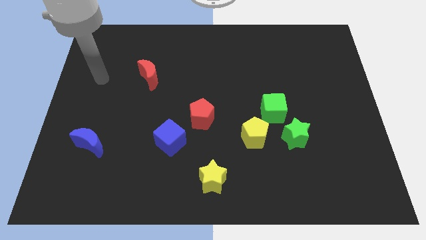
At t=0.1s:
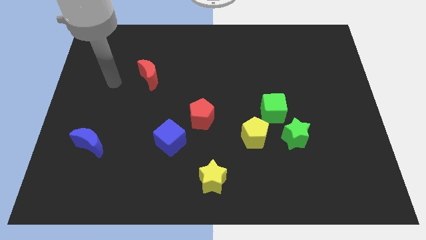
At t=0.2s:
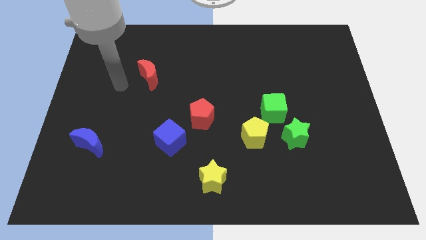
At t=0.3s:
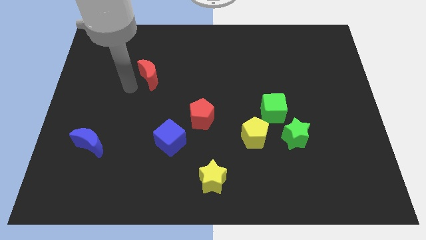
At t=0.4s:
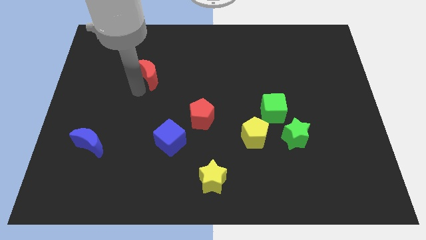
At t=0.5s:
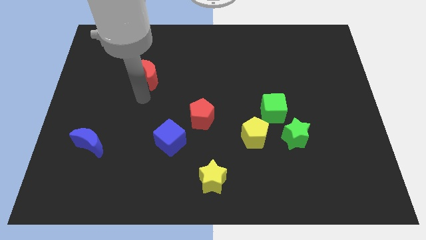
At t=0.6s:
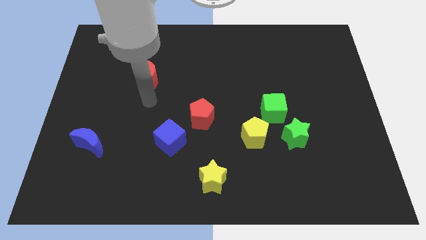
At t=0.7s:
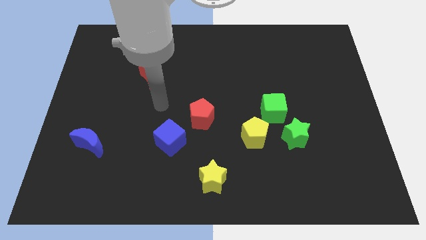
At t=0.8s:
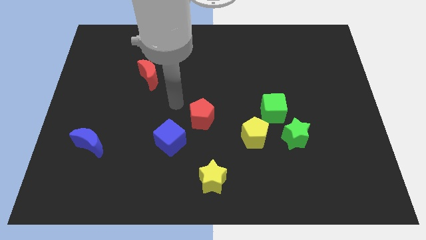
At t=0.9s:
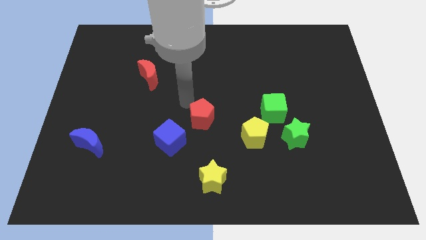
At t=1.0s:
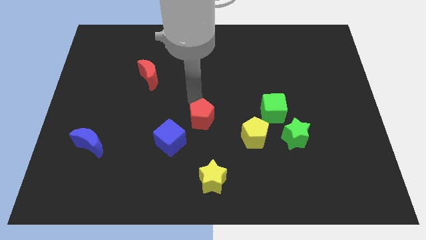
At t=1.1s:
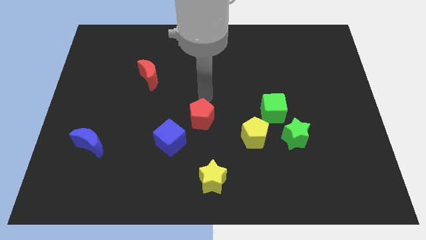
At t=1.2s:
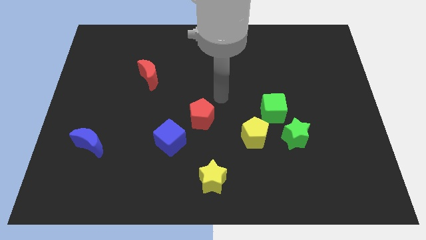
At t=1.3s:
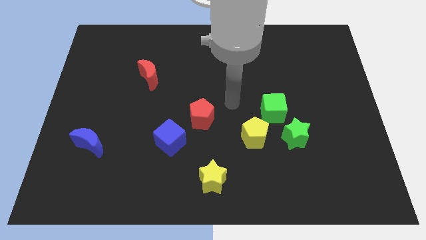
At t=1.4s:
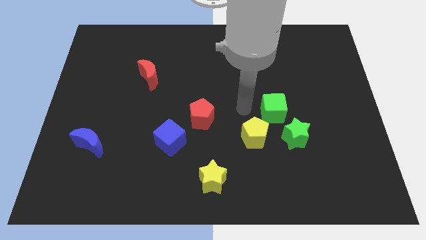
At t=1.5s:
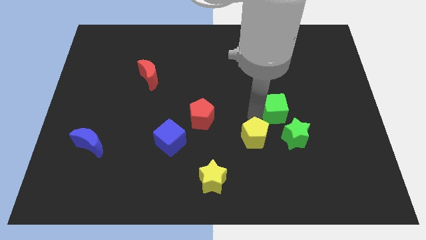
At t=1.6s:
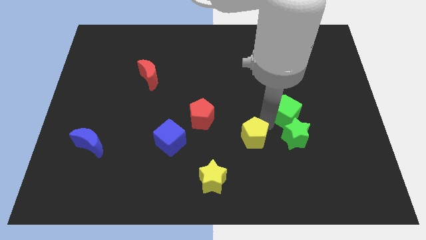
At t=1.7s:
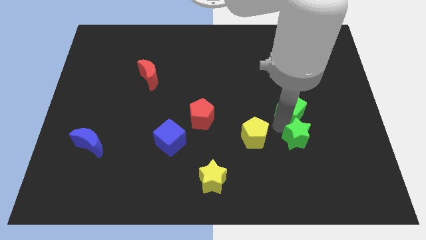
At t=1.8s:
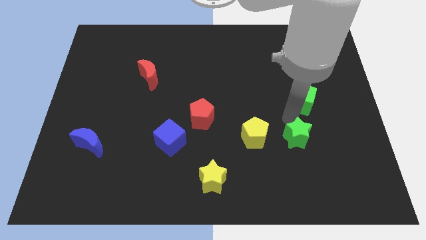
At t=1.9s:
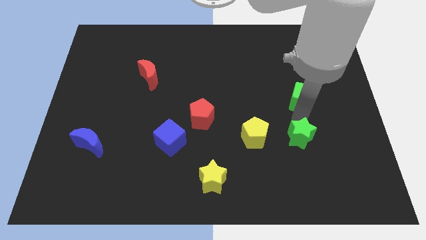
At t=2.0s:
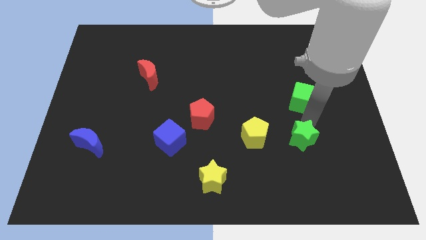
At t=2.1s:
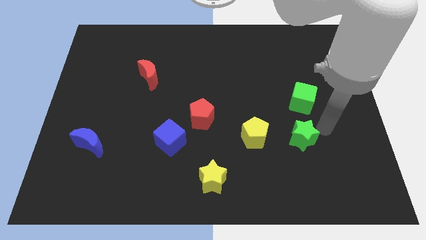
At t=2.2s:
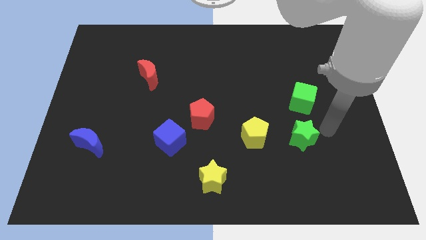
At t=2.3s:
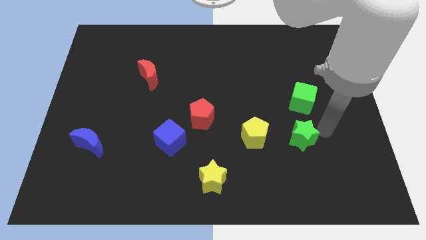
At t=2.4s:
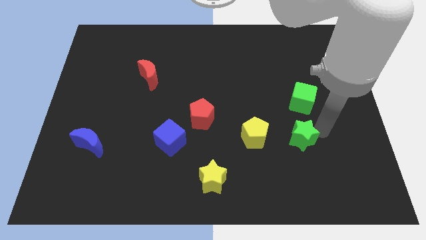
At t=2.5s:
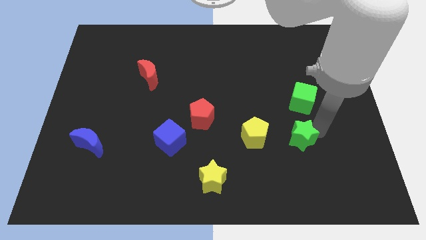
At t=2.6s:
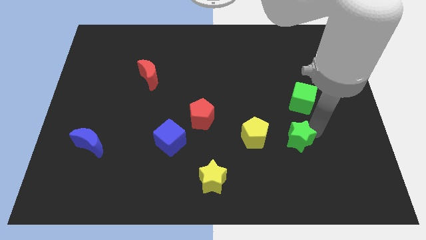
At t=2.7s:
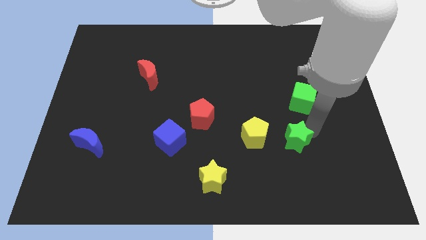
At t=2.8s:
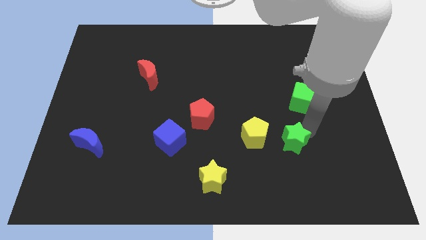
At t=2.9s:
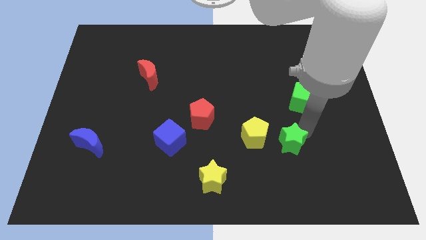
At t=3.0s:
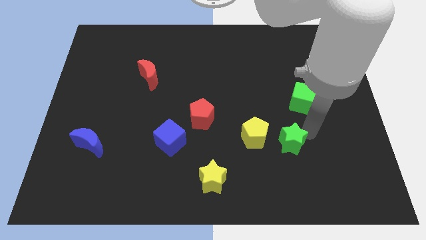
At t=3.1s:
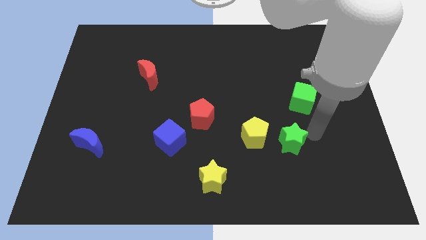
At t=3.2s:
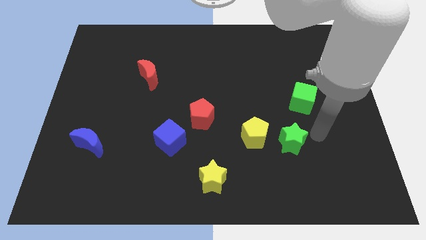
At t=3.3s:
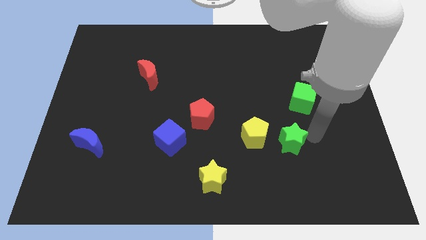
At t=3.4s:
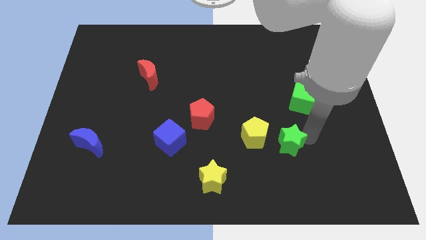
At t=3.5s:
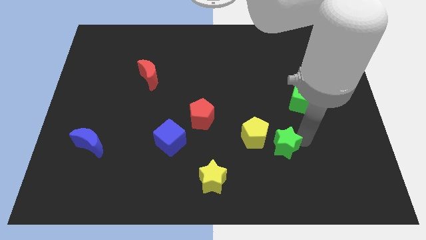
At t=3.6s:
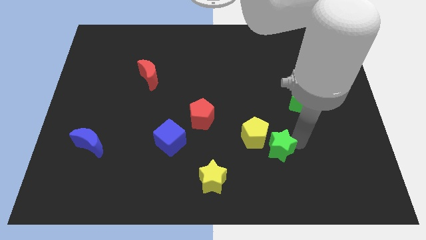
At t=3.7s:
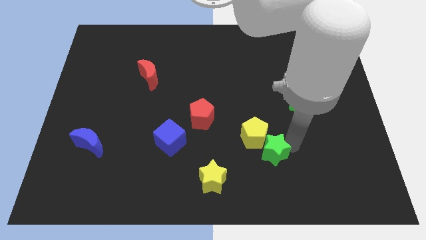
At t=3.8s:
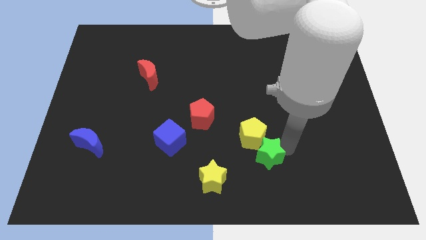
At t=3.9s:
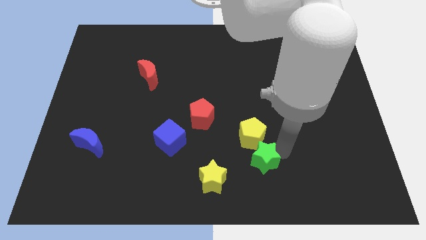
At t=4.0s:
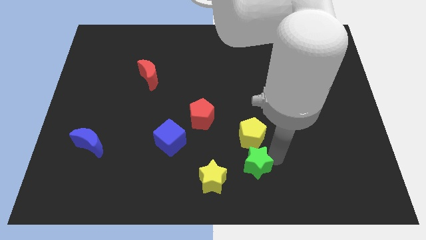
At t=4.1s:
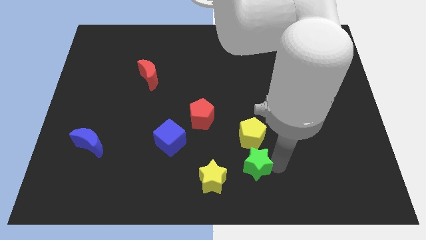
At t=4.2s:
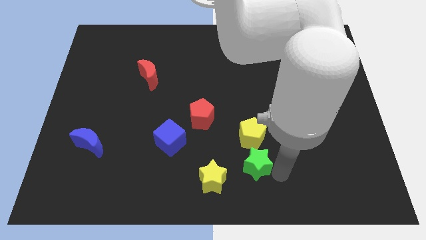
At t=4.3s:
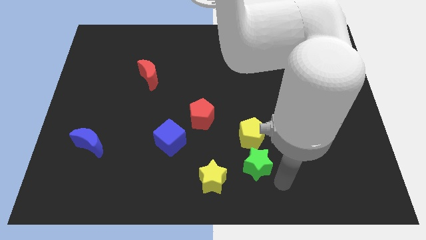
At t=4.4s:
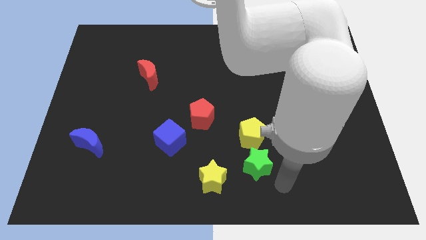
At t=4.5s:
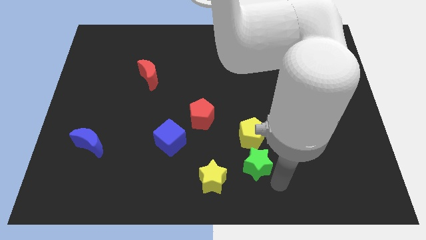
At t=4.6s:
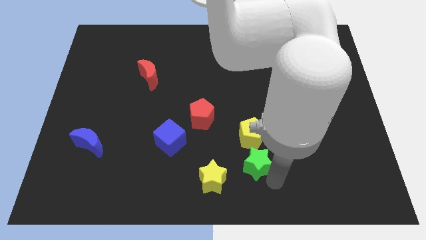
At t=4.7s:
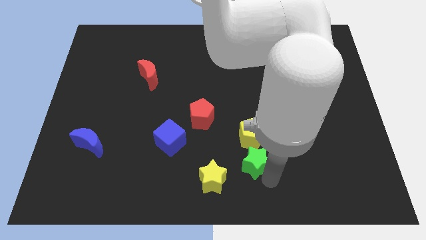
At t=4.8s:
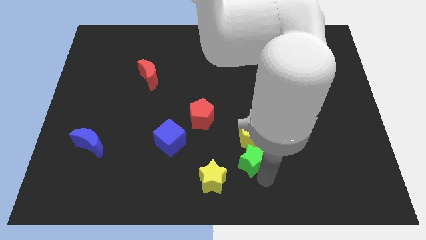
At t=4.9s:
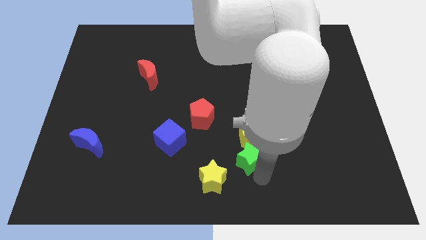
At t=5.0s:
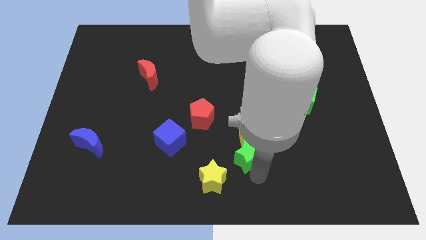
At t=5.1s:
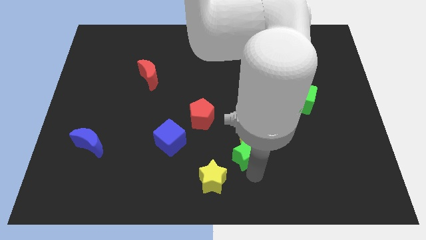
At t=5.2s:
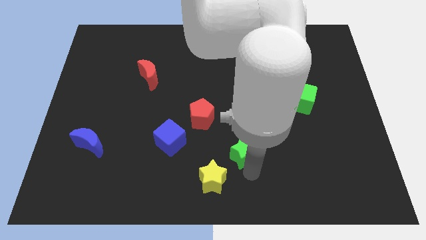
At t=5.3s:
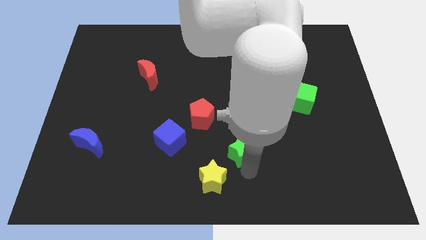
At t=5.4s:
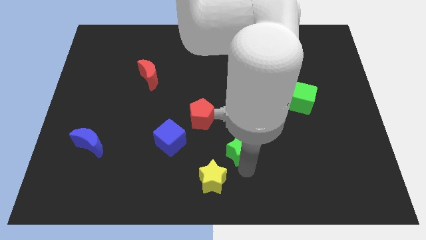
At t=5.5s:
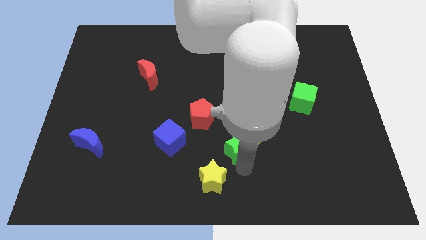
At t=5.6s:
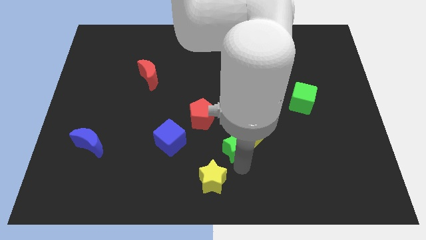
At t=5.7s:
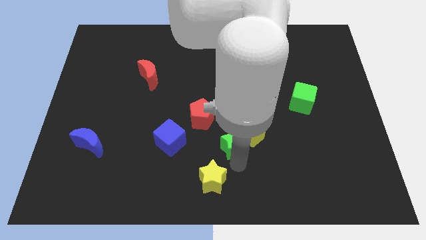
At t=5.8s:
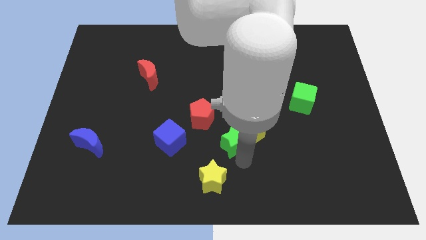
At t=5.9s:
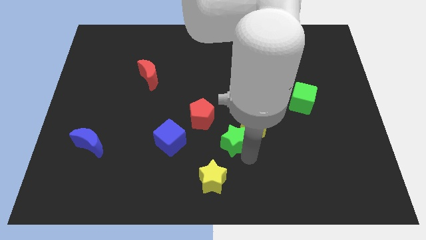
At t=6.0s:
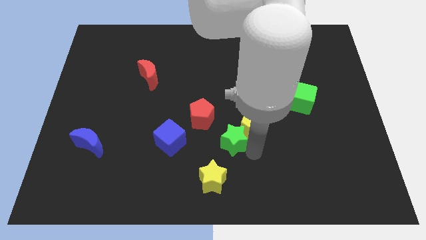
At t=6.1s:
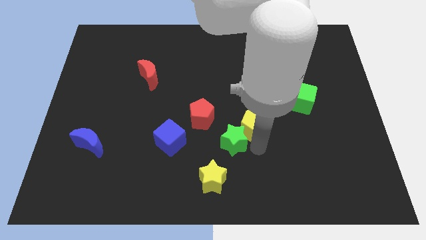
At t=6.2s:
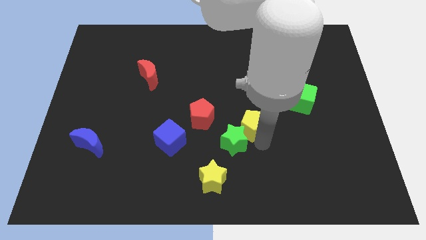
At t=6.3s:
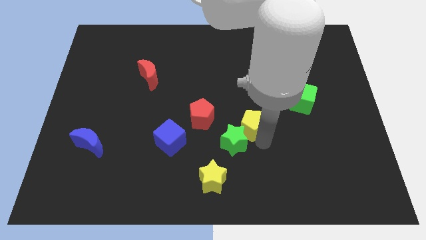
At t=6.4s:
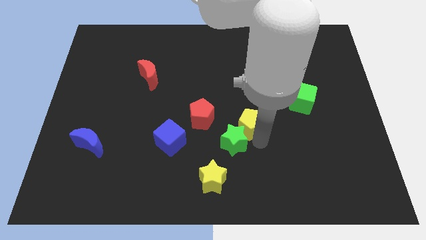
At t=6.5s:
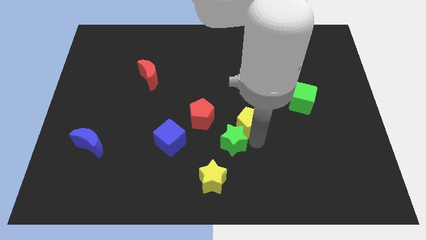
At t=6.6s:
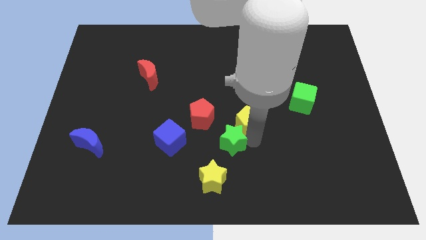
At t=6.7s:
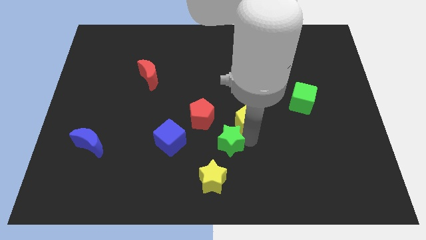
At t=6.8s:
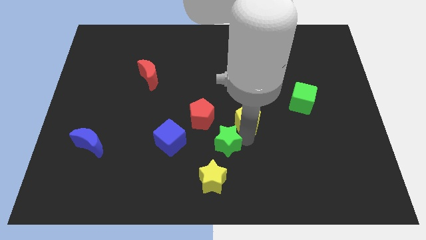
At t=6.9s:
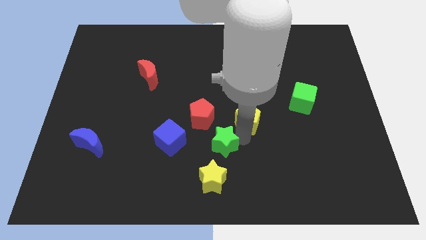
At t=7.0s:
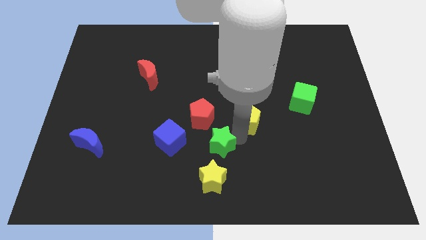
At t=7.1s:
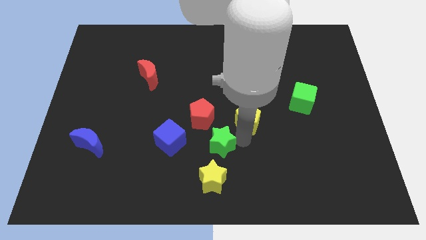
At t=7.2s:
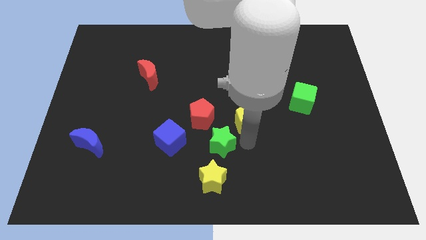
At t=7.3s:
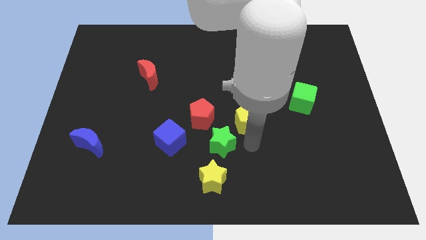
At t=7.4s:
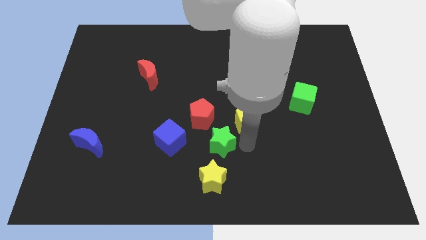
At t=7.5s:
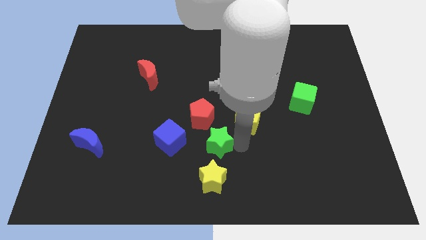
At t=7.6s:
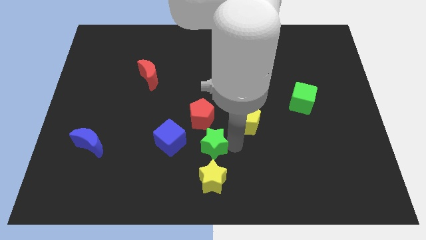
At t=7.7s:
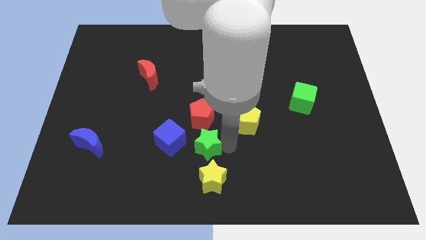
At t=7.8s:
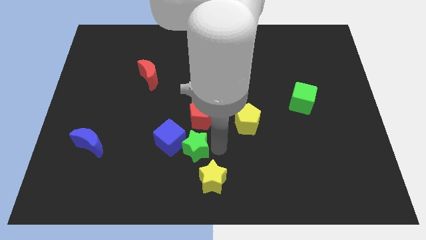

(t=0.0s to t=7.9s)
slide the green star to the blue cube
